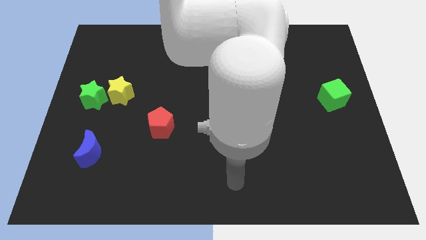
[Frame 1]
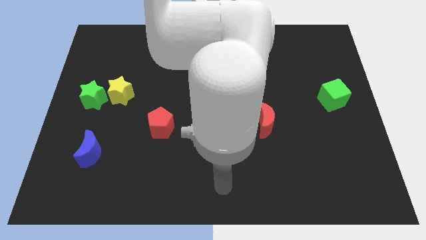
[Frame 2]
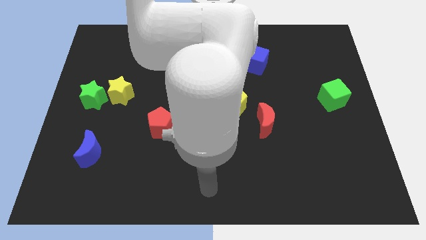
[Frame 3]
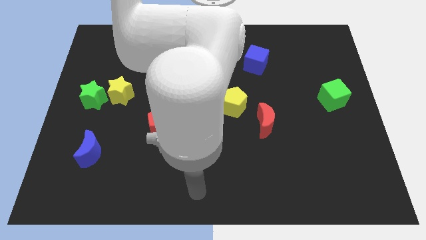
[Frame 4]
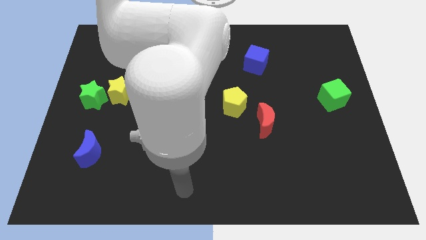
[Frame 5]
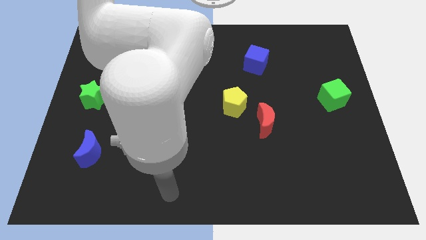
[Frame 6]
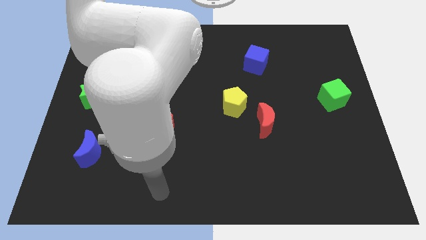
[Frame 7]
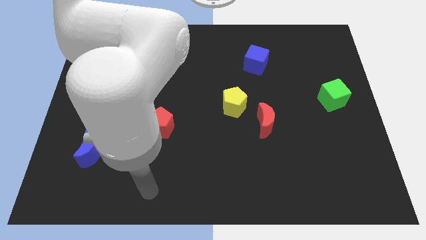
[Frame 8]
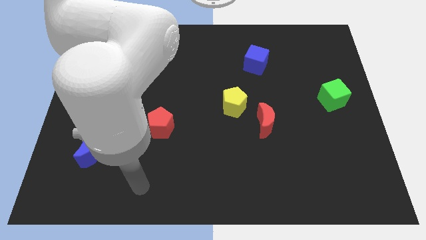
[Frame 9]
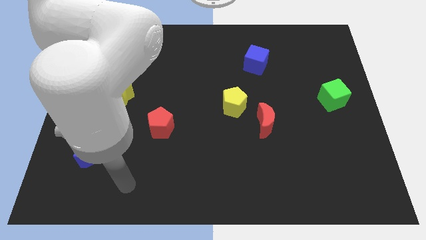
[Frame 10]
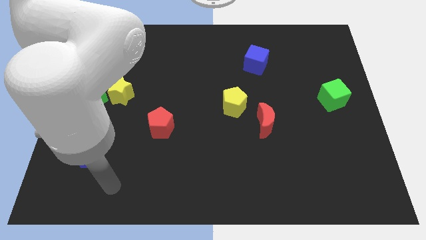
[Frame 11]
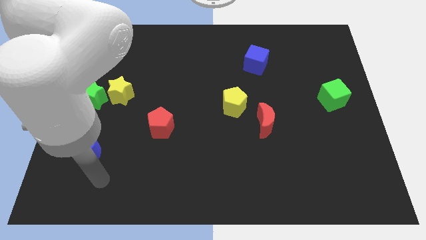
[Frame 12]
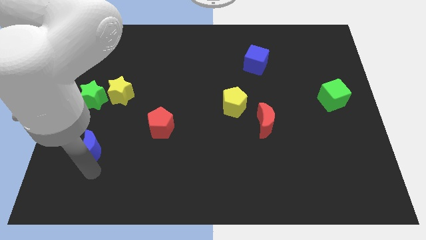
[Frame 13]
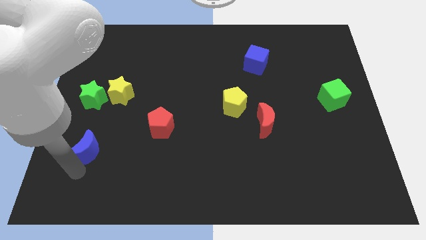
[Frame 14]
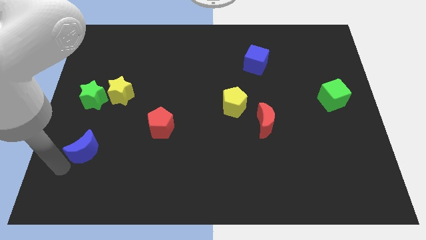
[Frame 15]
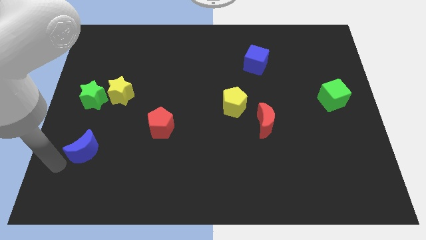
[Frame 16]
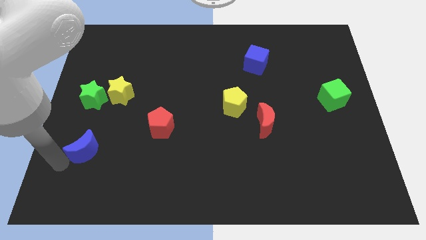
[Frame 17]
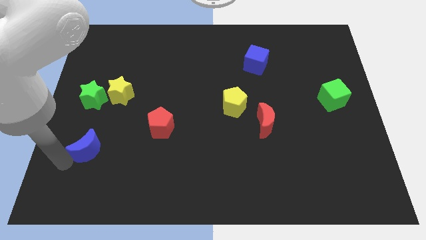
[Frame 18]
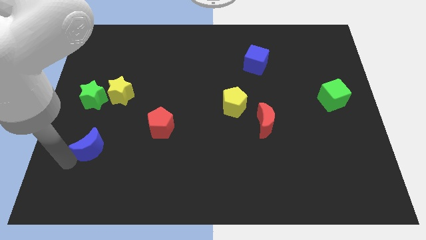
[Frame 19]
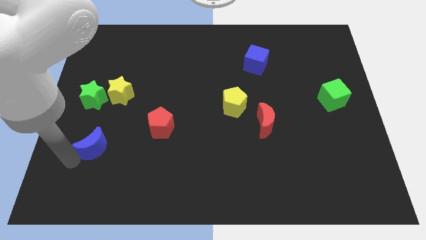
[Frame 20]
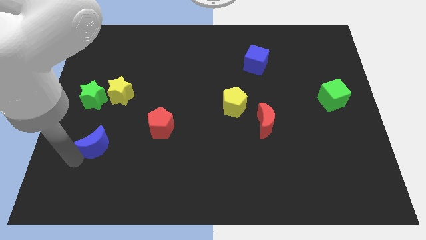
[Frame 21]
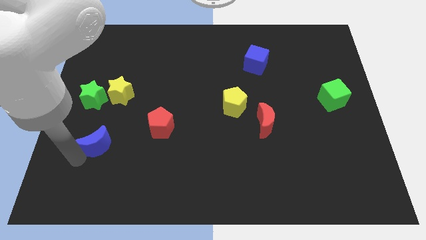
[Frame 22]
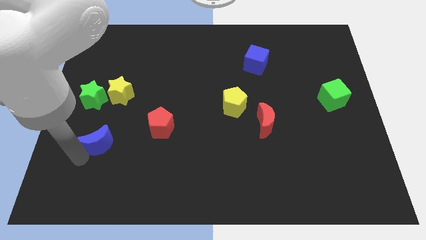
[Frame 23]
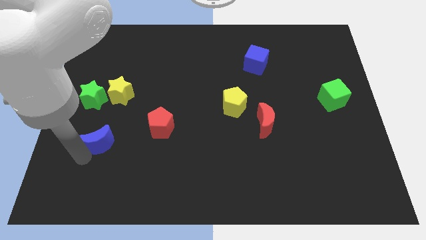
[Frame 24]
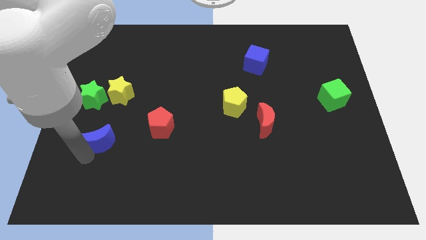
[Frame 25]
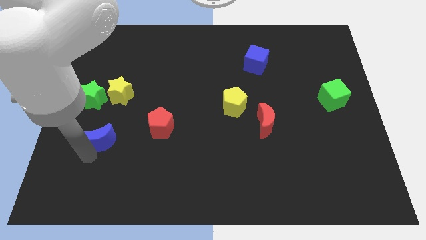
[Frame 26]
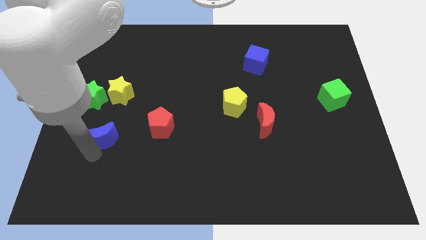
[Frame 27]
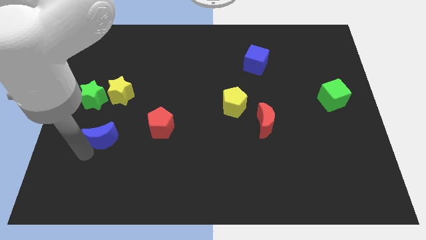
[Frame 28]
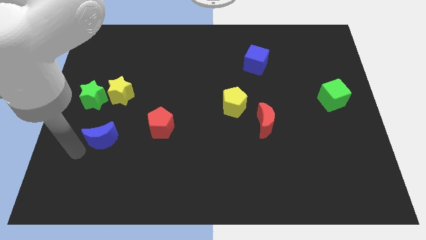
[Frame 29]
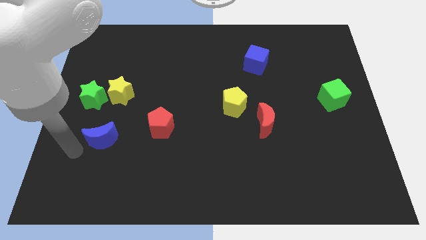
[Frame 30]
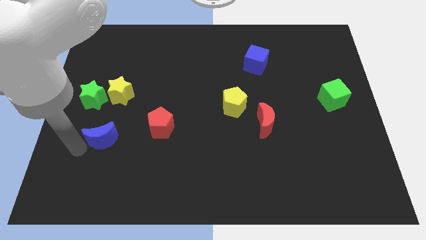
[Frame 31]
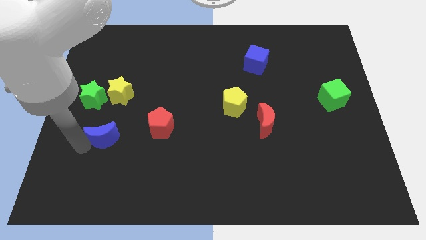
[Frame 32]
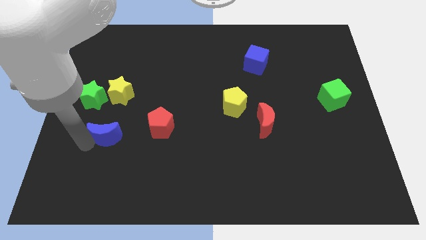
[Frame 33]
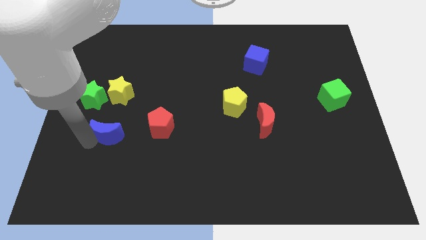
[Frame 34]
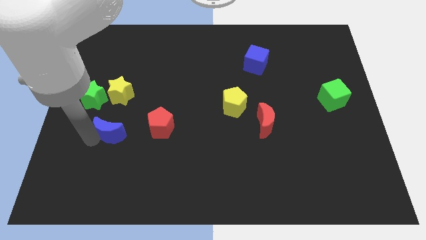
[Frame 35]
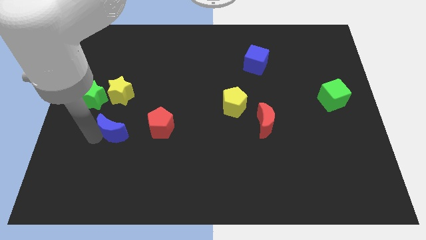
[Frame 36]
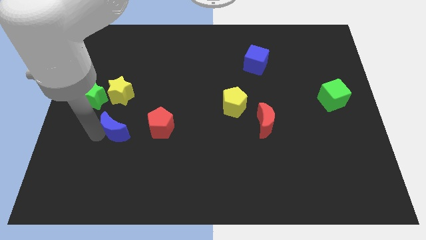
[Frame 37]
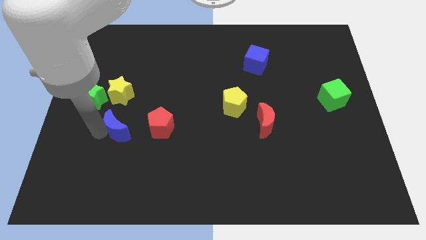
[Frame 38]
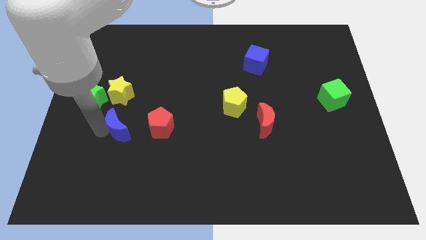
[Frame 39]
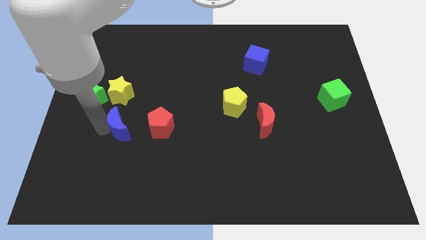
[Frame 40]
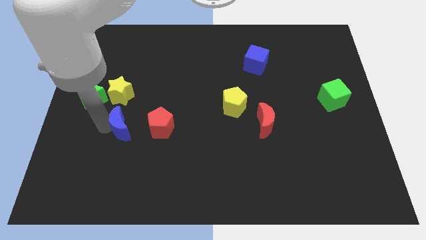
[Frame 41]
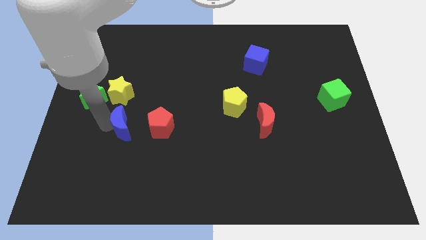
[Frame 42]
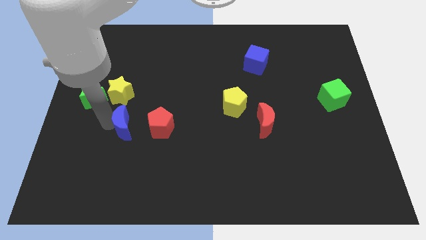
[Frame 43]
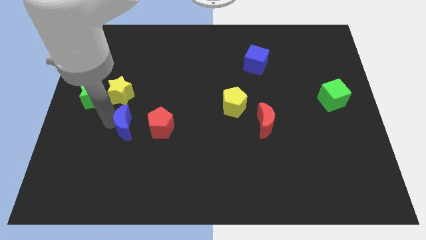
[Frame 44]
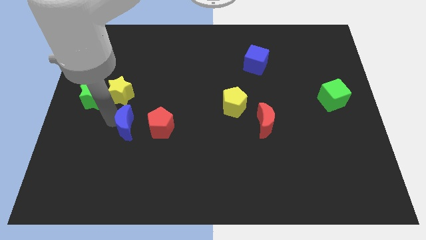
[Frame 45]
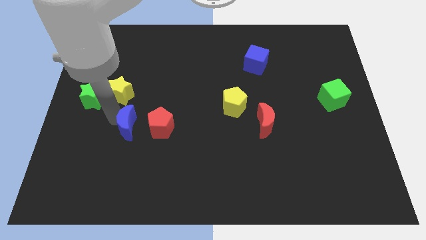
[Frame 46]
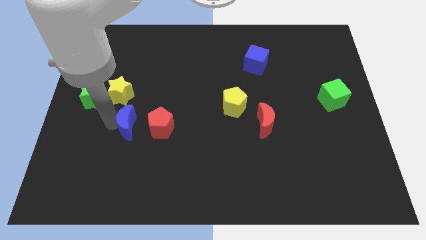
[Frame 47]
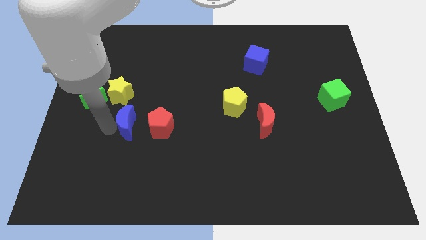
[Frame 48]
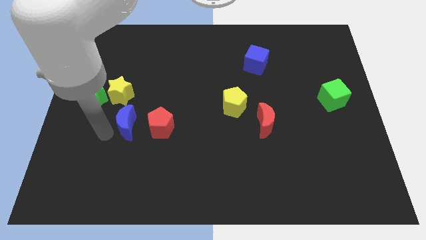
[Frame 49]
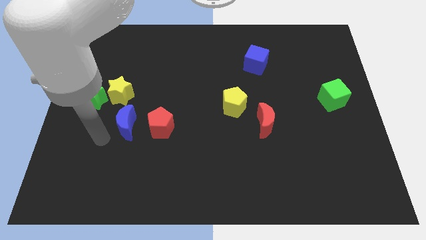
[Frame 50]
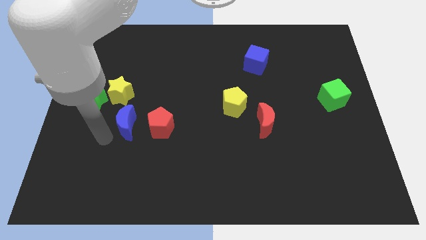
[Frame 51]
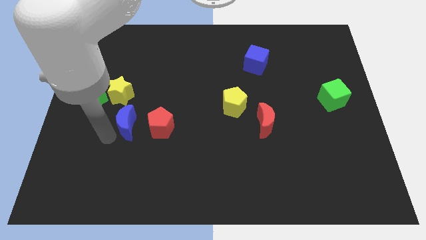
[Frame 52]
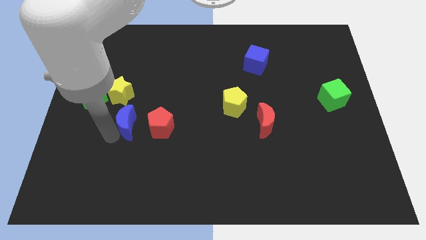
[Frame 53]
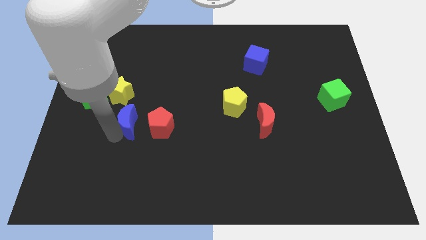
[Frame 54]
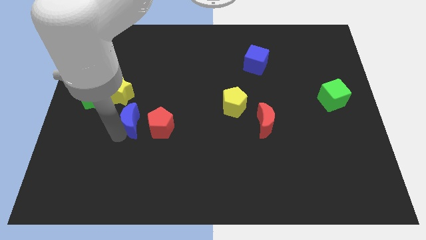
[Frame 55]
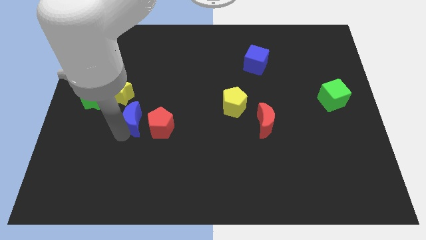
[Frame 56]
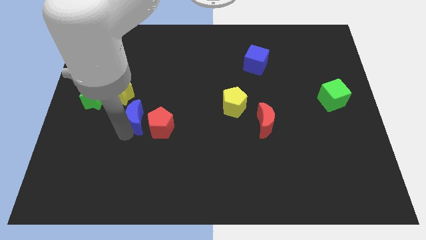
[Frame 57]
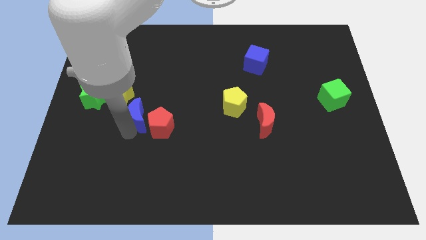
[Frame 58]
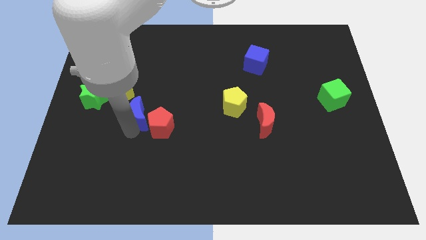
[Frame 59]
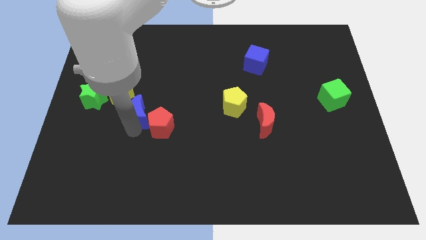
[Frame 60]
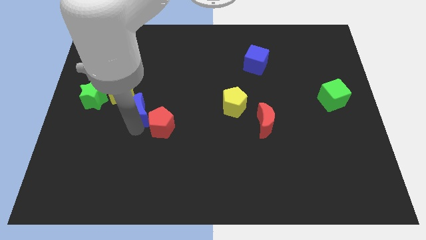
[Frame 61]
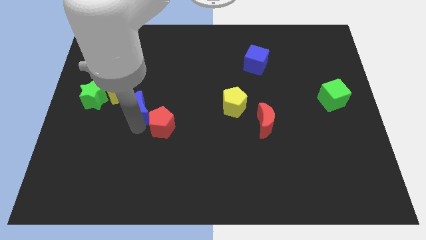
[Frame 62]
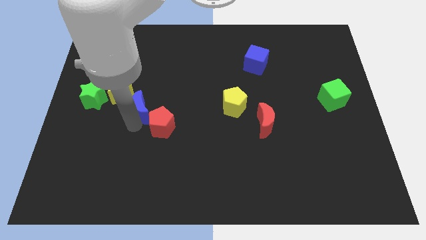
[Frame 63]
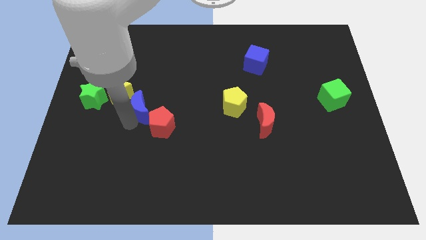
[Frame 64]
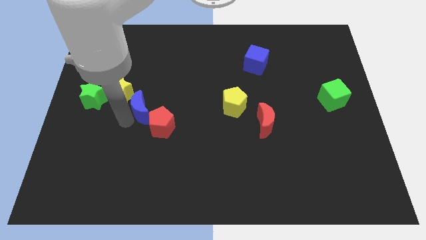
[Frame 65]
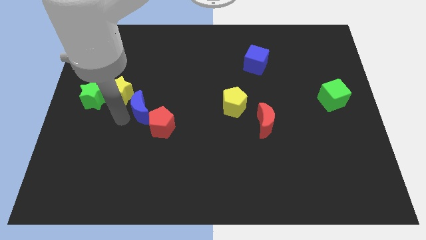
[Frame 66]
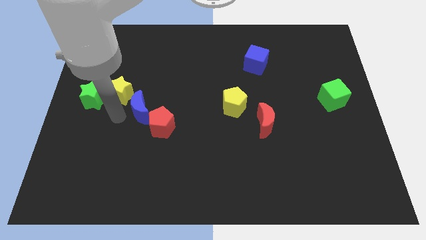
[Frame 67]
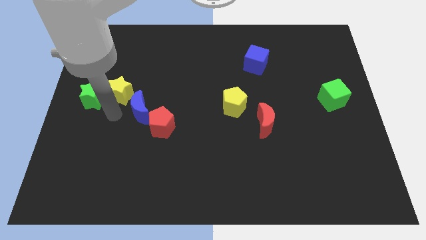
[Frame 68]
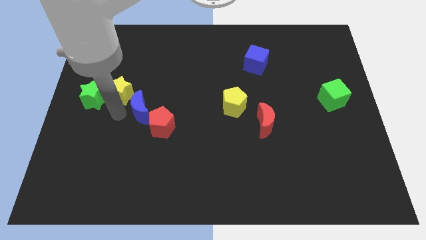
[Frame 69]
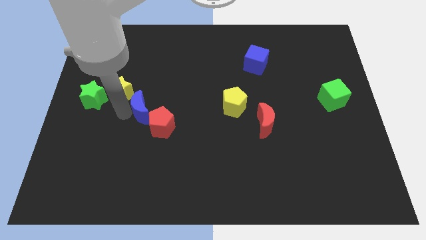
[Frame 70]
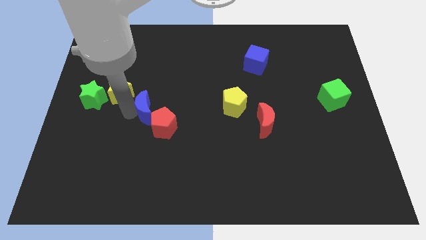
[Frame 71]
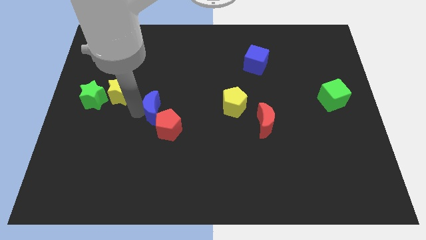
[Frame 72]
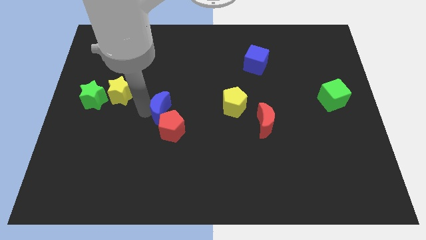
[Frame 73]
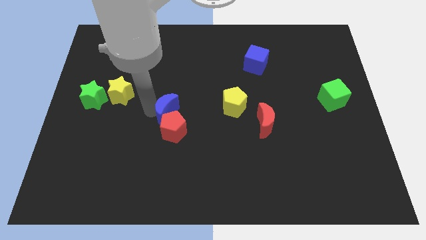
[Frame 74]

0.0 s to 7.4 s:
put the blue moon to the center of the board
